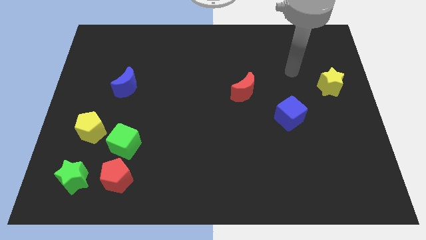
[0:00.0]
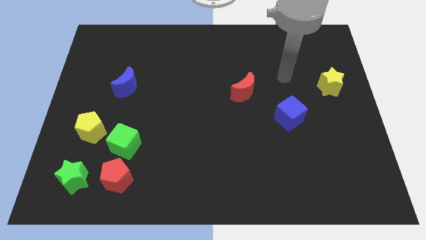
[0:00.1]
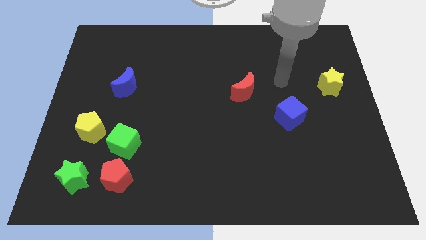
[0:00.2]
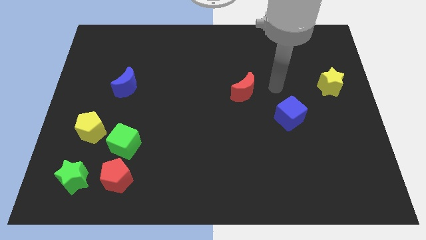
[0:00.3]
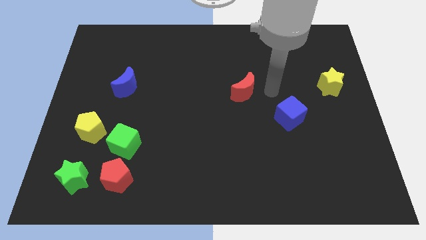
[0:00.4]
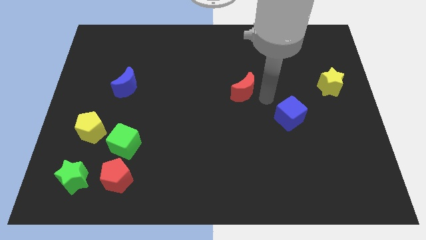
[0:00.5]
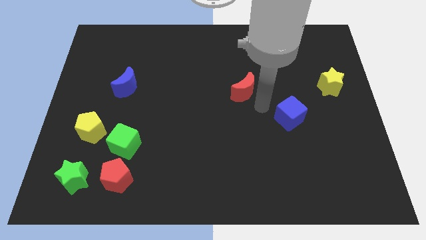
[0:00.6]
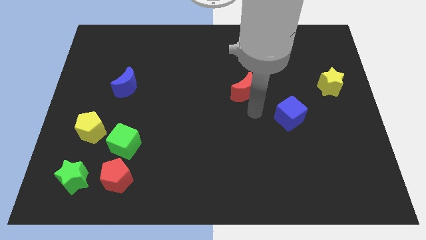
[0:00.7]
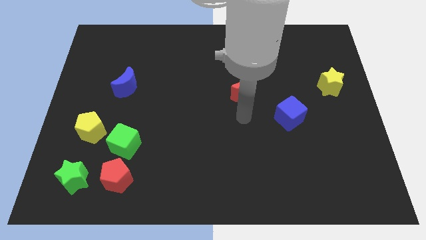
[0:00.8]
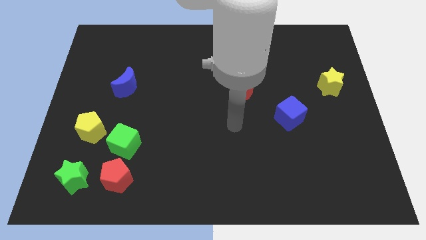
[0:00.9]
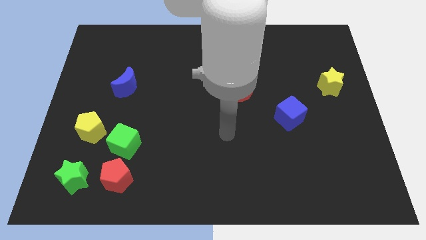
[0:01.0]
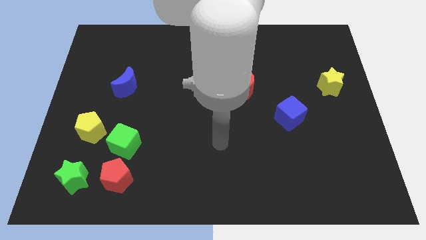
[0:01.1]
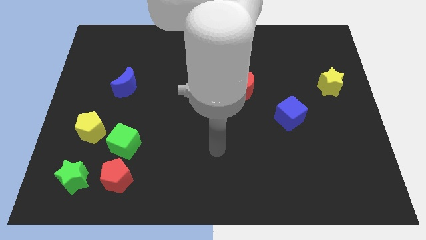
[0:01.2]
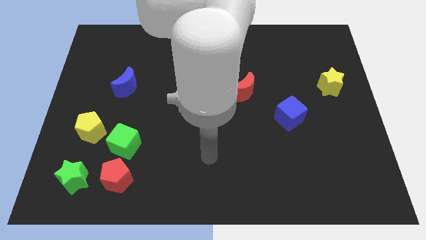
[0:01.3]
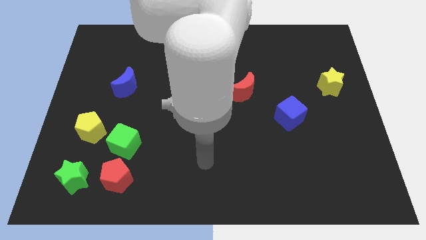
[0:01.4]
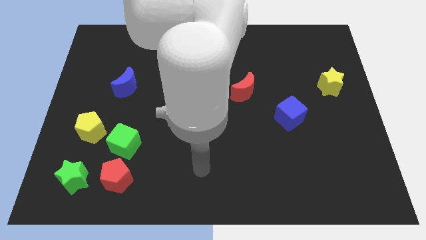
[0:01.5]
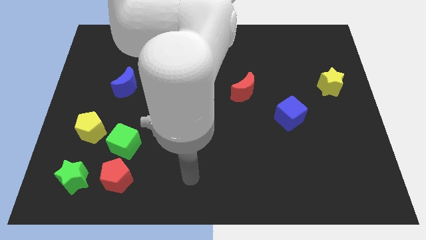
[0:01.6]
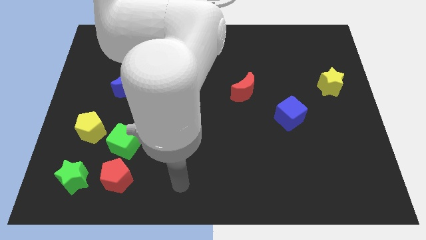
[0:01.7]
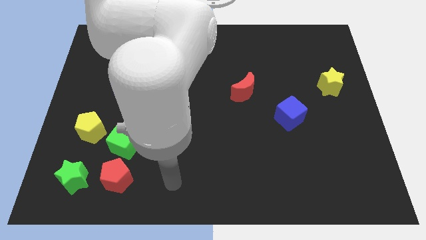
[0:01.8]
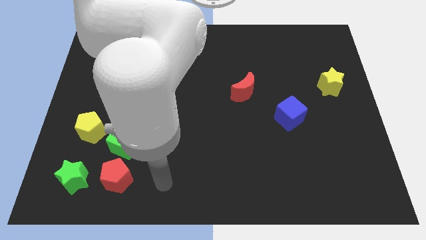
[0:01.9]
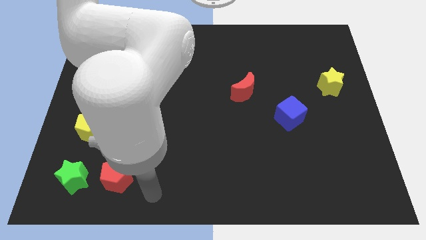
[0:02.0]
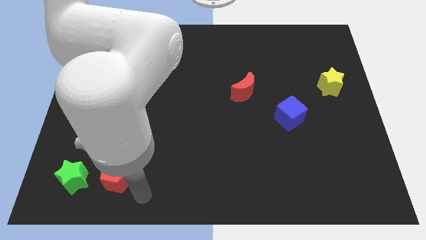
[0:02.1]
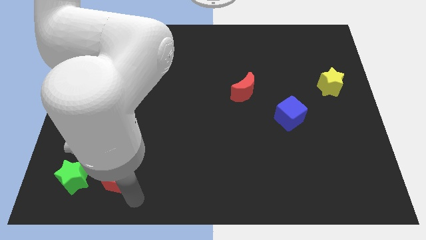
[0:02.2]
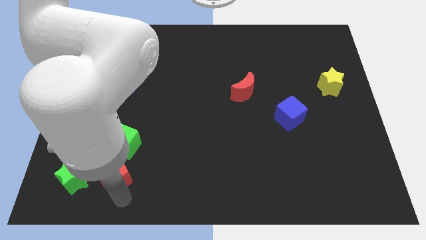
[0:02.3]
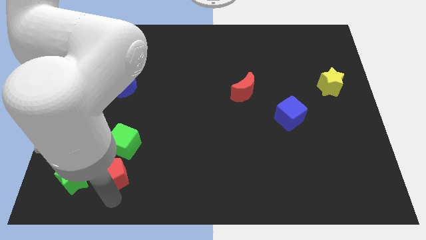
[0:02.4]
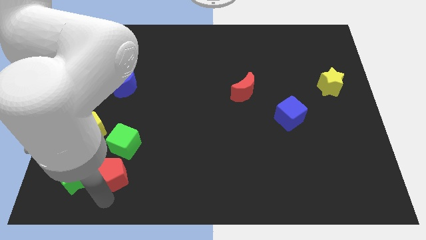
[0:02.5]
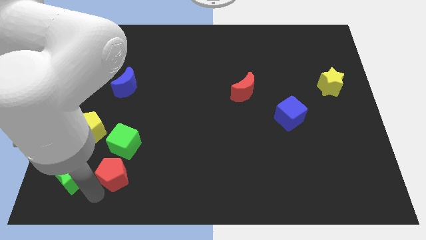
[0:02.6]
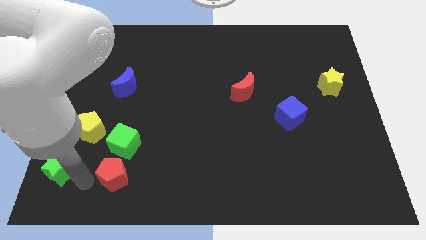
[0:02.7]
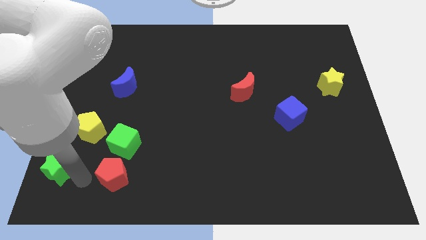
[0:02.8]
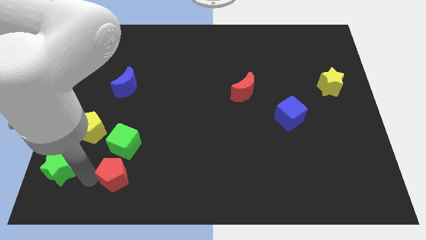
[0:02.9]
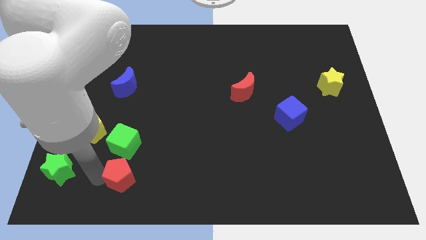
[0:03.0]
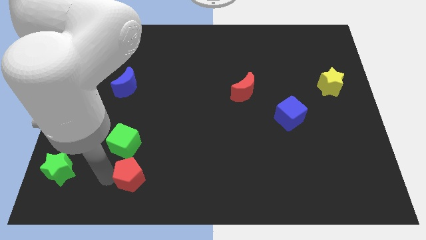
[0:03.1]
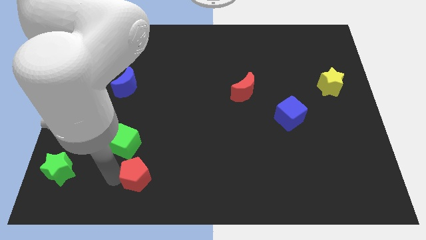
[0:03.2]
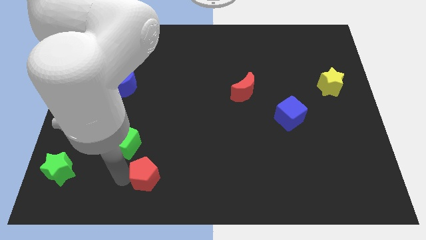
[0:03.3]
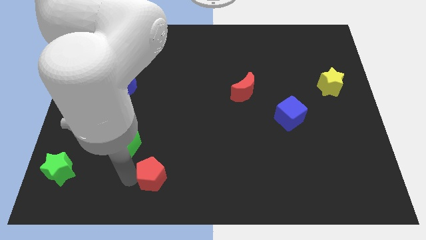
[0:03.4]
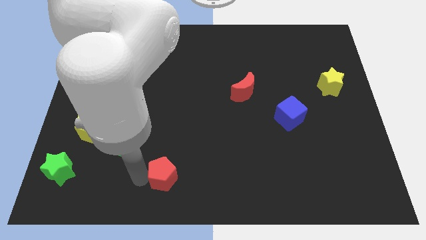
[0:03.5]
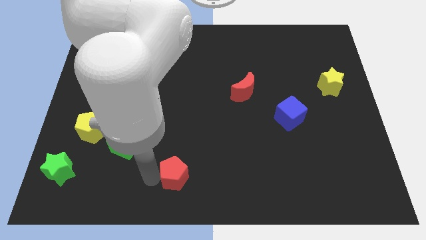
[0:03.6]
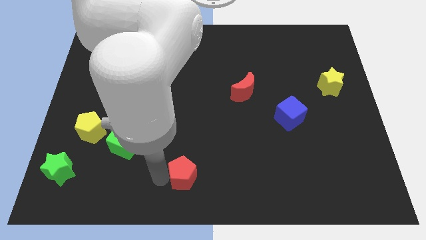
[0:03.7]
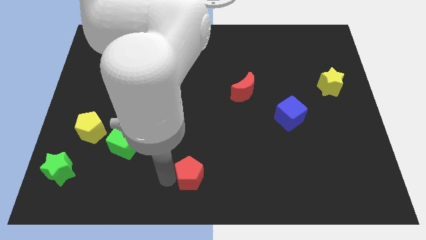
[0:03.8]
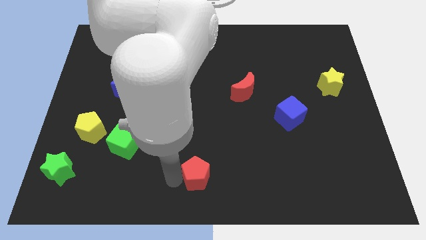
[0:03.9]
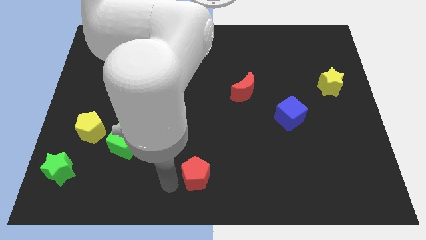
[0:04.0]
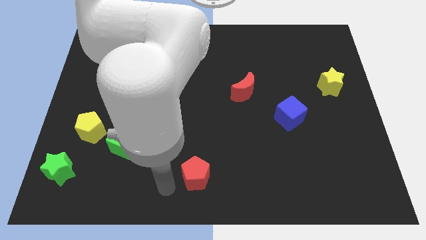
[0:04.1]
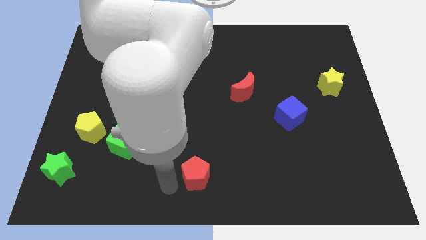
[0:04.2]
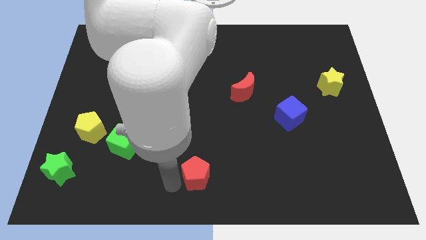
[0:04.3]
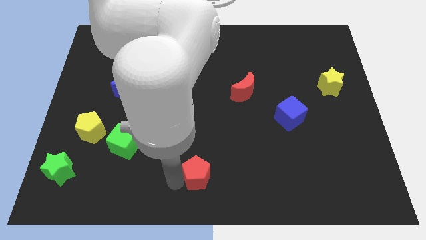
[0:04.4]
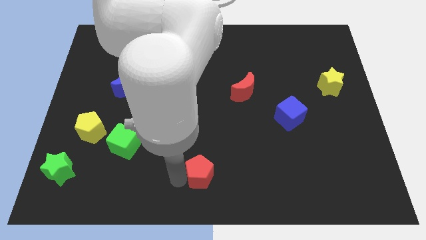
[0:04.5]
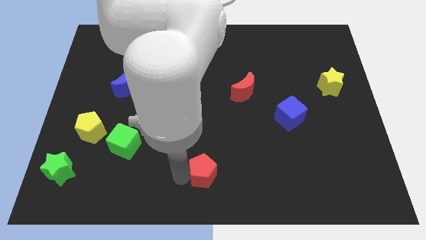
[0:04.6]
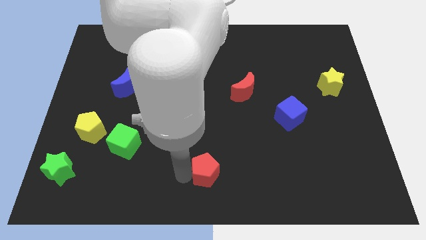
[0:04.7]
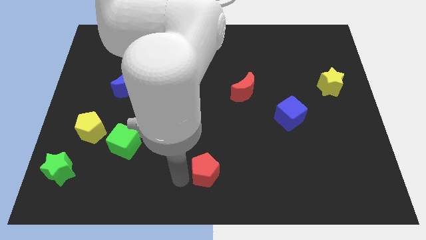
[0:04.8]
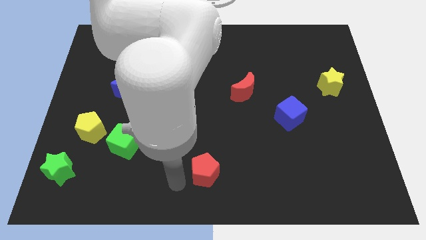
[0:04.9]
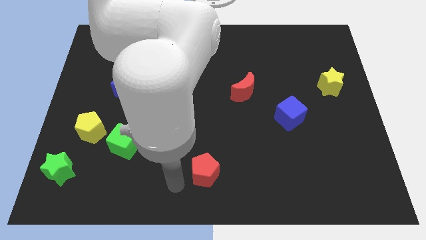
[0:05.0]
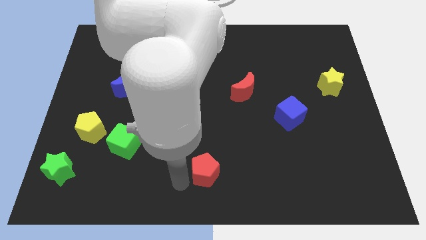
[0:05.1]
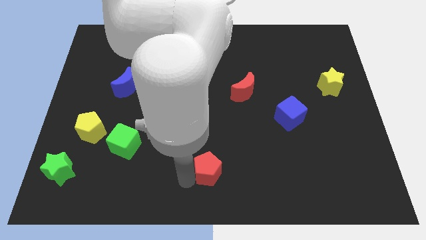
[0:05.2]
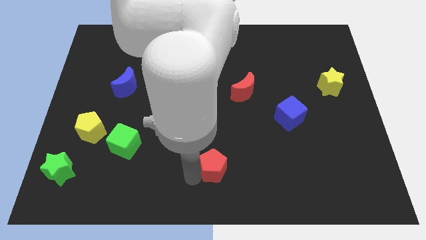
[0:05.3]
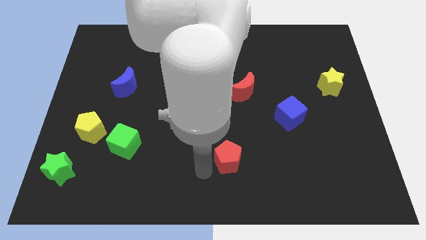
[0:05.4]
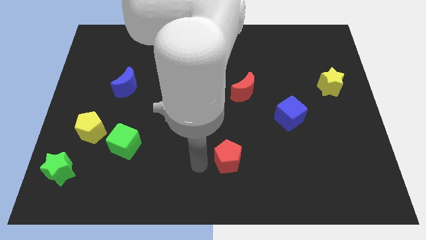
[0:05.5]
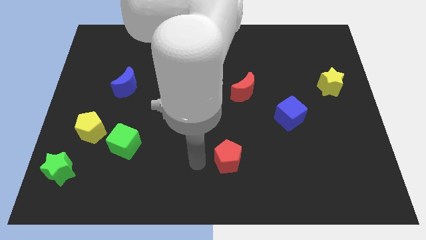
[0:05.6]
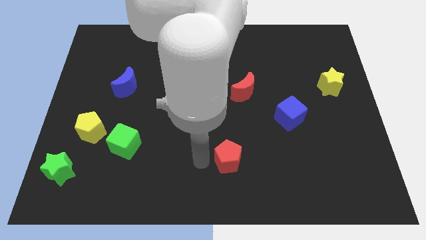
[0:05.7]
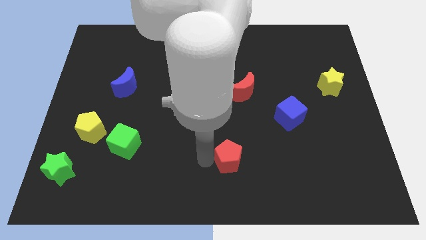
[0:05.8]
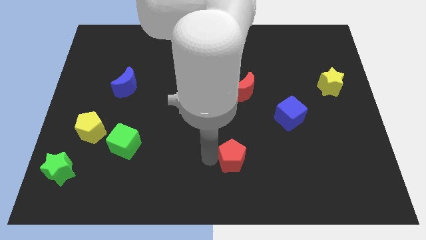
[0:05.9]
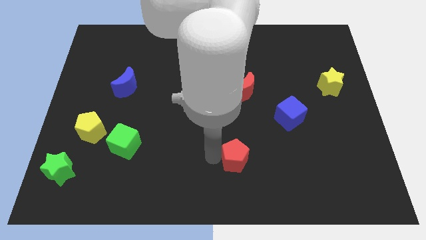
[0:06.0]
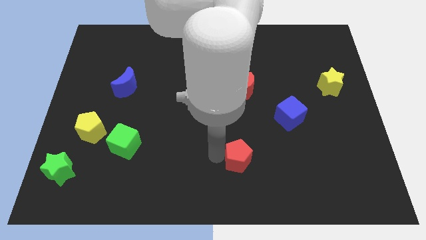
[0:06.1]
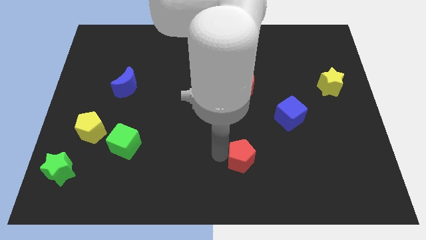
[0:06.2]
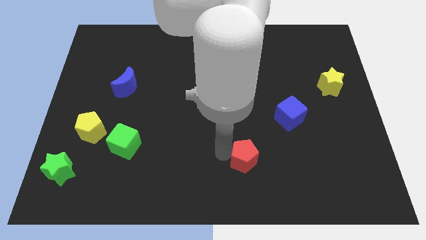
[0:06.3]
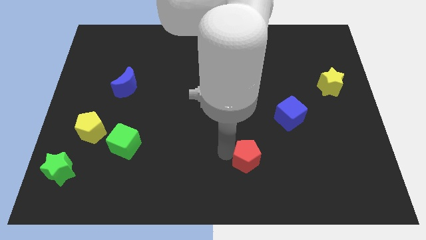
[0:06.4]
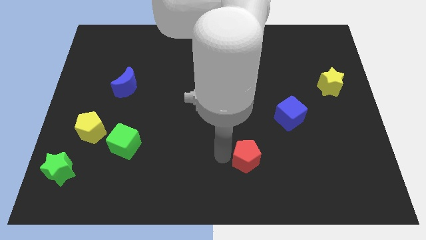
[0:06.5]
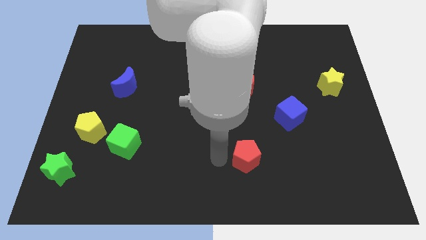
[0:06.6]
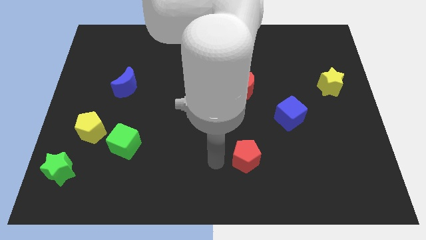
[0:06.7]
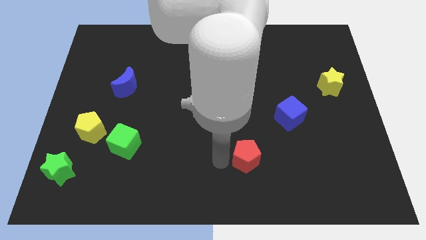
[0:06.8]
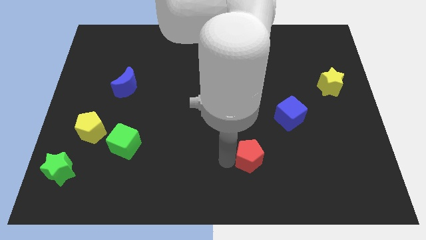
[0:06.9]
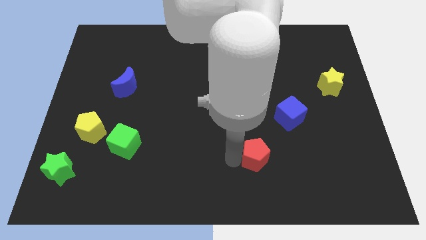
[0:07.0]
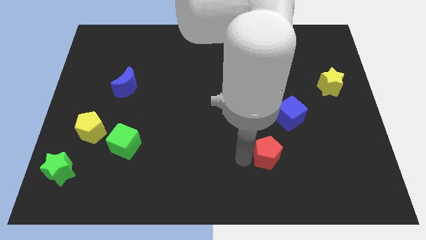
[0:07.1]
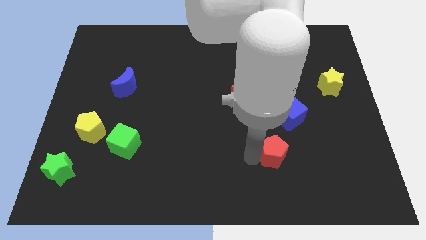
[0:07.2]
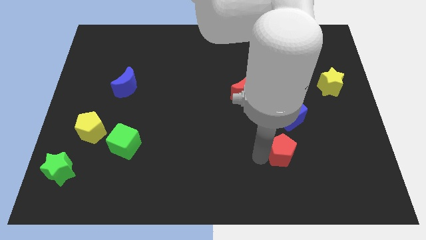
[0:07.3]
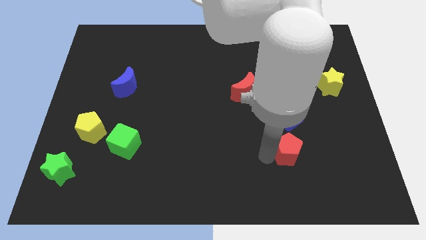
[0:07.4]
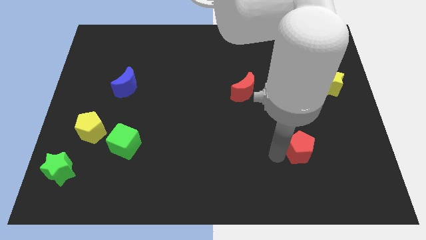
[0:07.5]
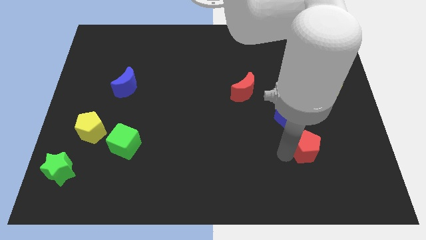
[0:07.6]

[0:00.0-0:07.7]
push the red pentagon to the bottom right of the blue cube

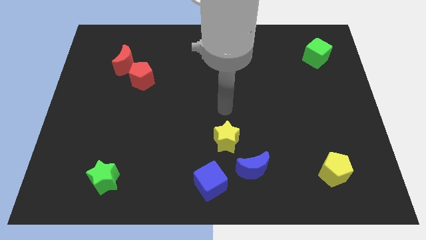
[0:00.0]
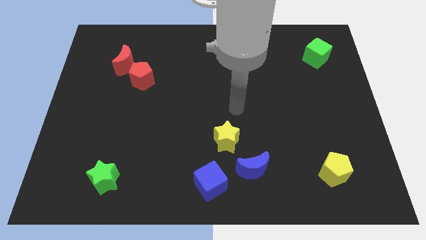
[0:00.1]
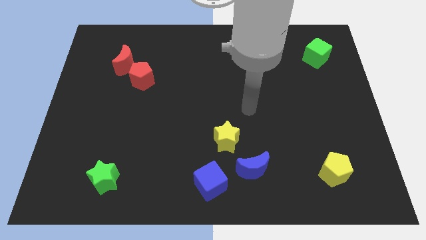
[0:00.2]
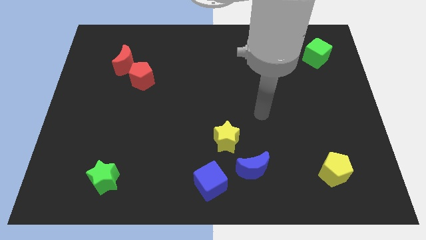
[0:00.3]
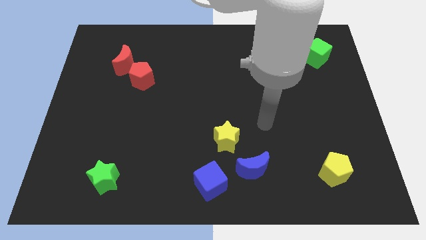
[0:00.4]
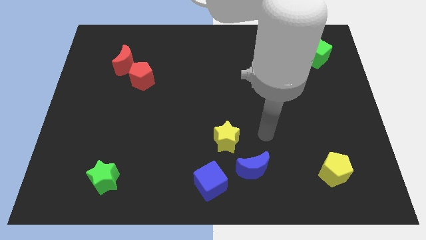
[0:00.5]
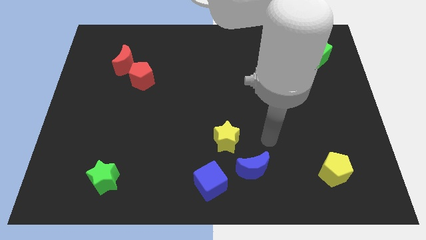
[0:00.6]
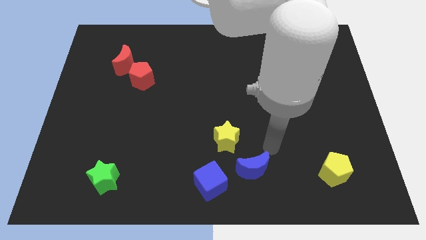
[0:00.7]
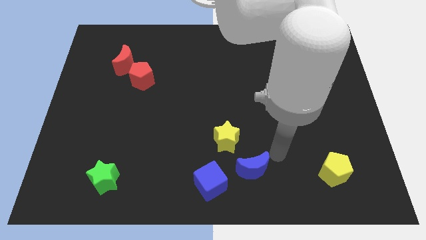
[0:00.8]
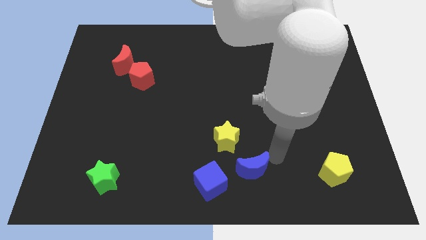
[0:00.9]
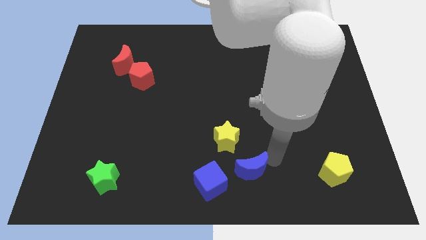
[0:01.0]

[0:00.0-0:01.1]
push the blue moon below the yellow star
